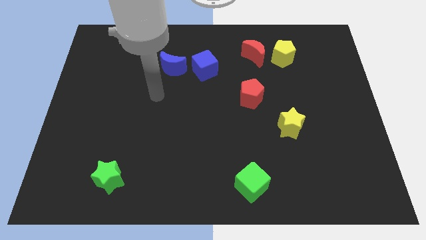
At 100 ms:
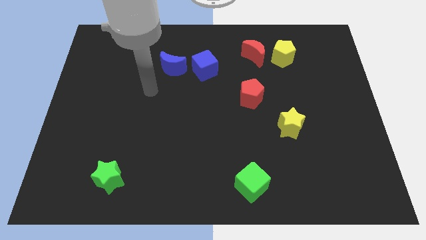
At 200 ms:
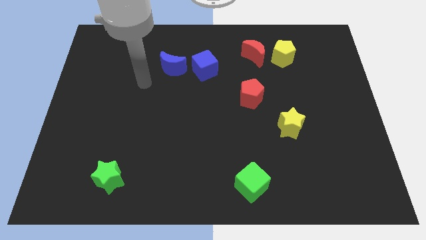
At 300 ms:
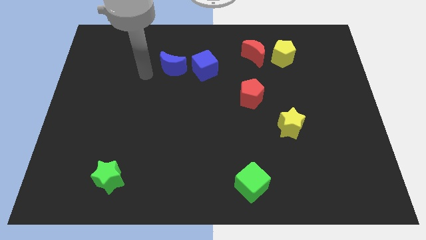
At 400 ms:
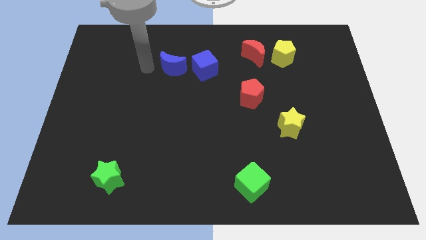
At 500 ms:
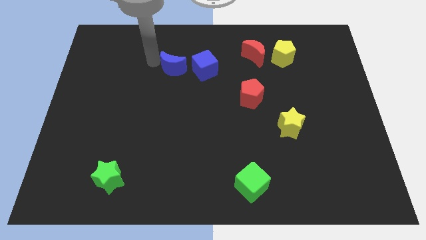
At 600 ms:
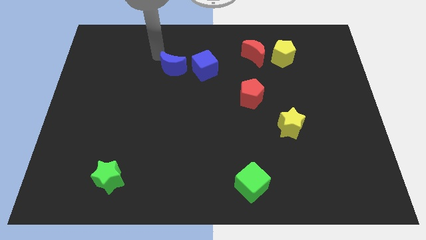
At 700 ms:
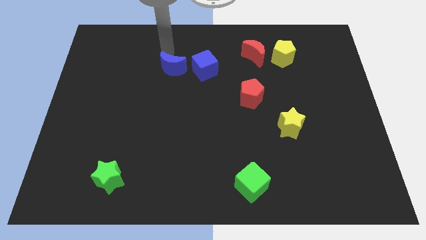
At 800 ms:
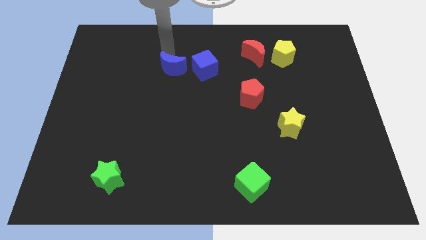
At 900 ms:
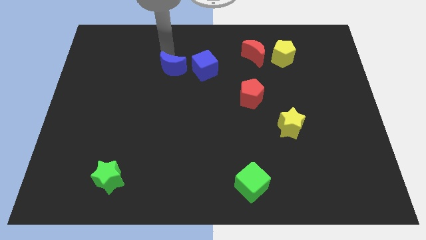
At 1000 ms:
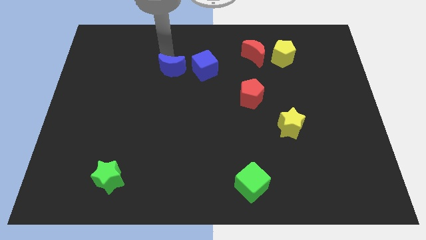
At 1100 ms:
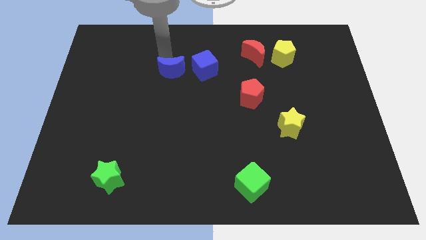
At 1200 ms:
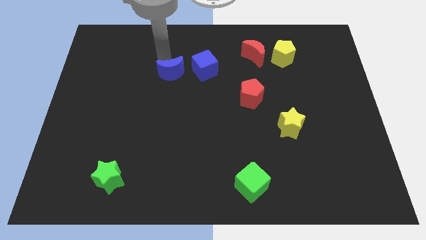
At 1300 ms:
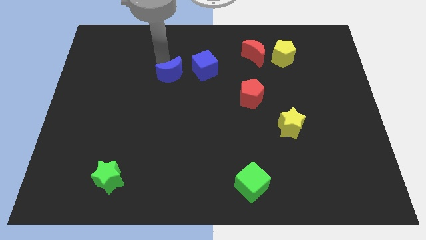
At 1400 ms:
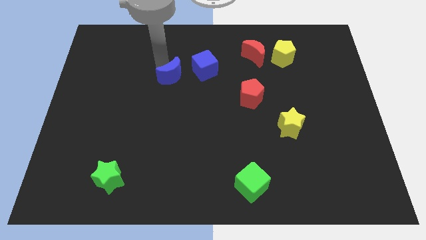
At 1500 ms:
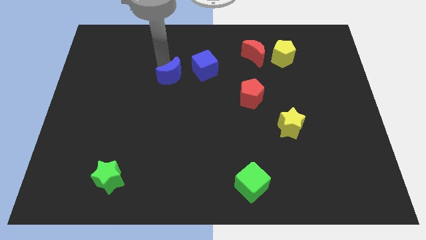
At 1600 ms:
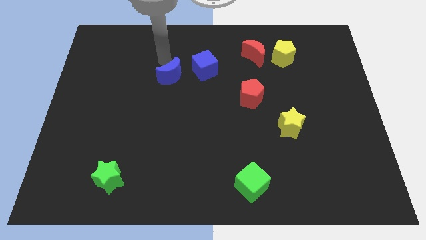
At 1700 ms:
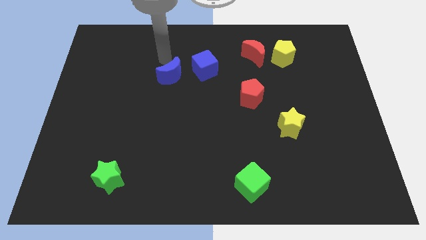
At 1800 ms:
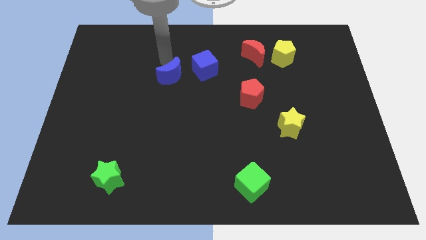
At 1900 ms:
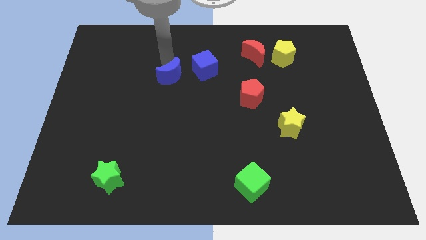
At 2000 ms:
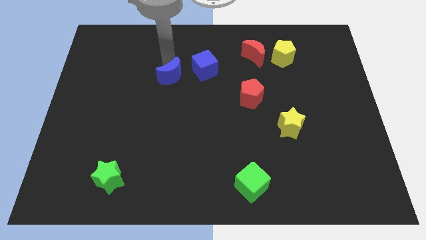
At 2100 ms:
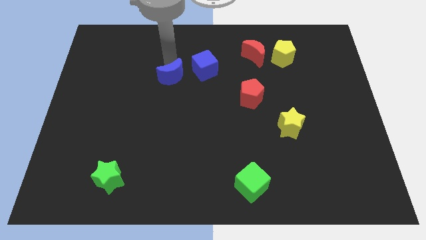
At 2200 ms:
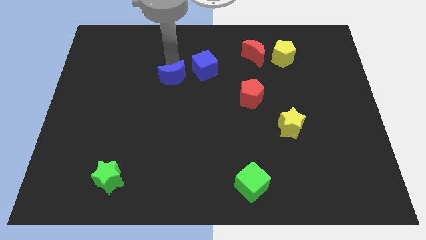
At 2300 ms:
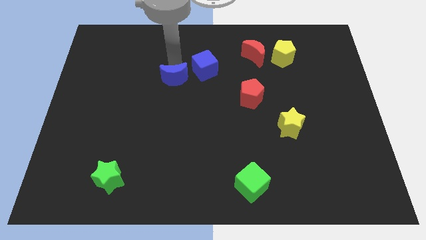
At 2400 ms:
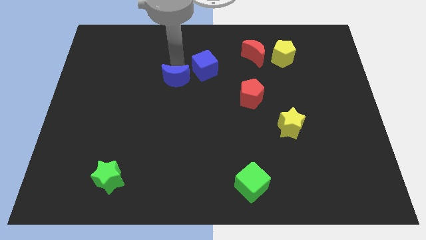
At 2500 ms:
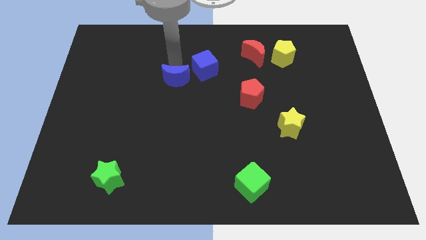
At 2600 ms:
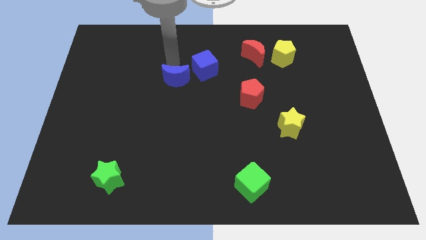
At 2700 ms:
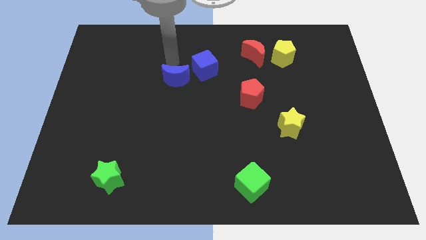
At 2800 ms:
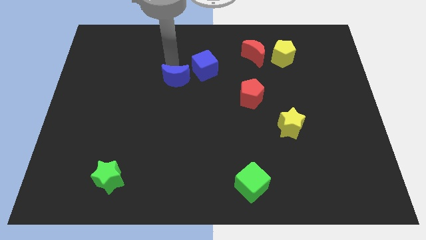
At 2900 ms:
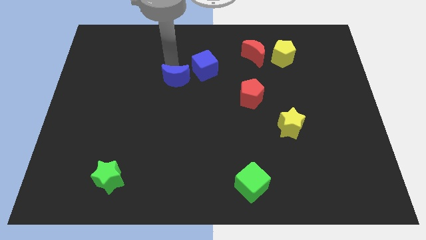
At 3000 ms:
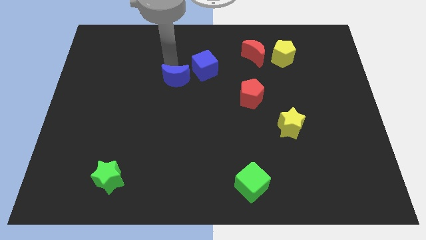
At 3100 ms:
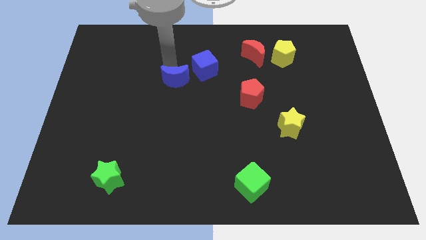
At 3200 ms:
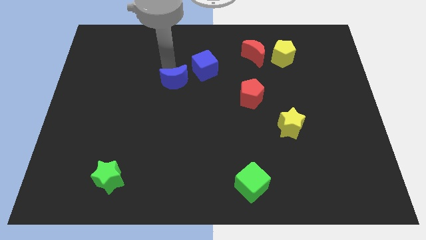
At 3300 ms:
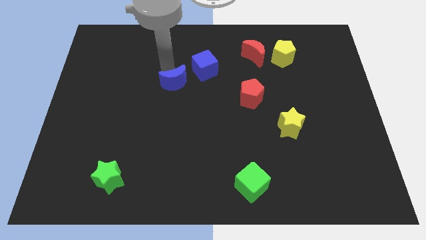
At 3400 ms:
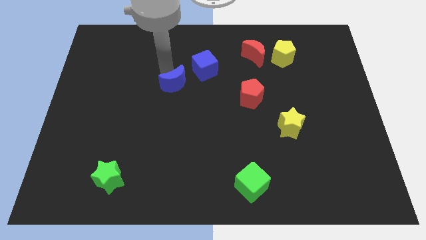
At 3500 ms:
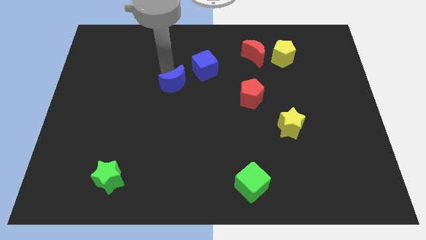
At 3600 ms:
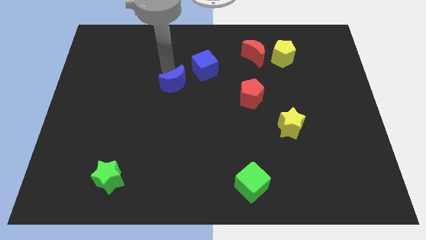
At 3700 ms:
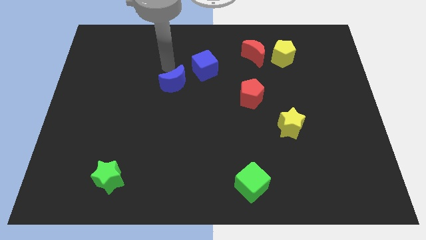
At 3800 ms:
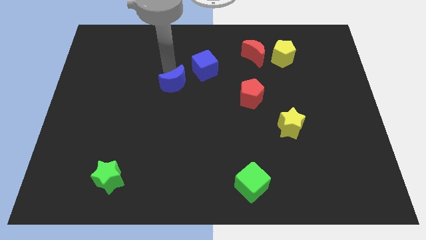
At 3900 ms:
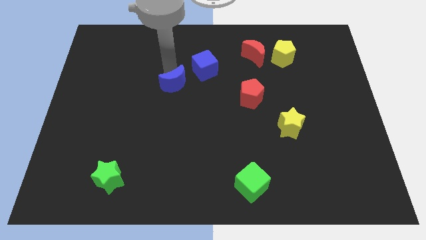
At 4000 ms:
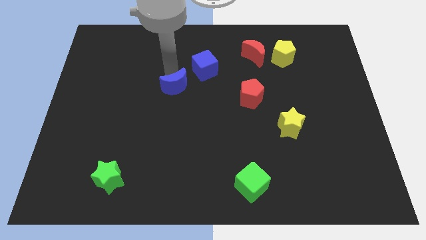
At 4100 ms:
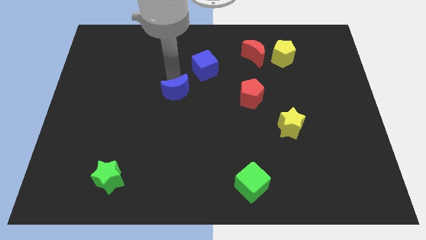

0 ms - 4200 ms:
slightly move the blue moon downwards

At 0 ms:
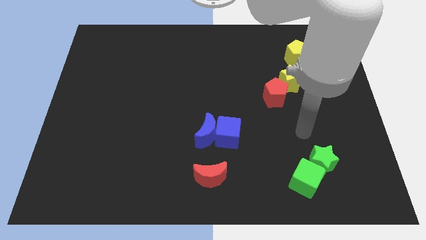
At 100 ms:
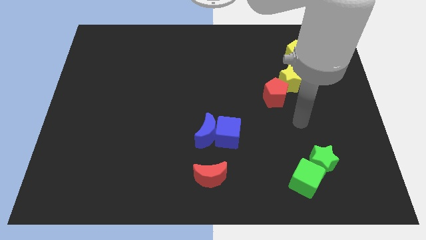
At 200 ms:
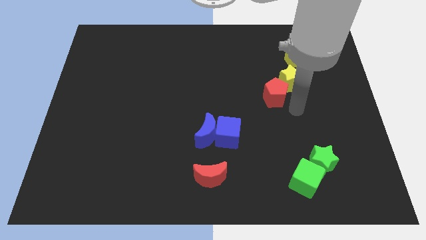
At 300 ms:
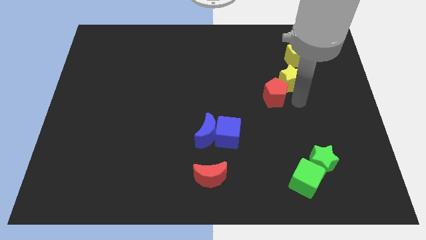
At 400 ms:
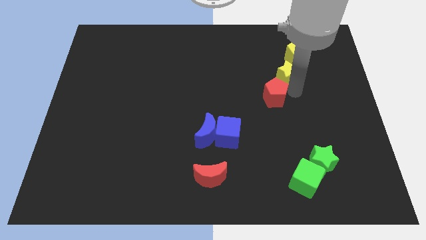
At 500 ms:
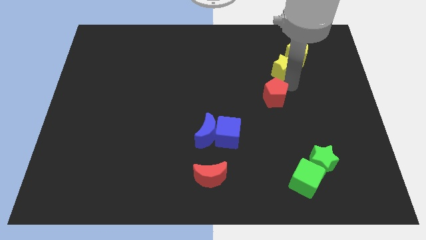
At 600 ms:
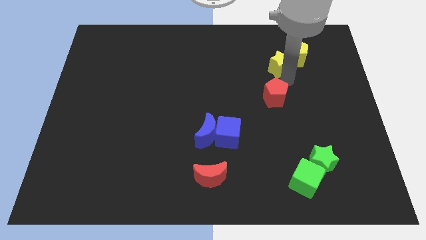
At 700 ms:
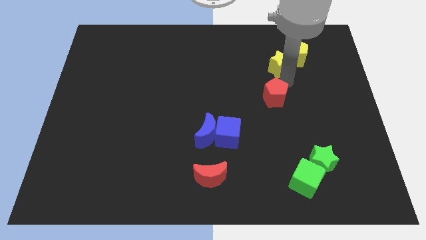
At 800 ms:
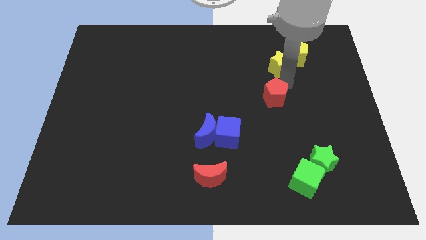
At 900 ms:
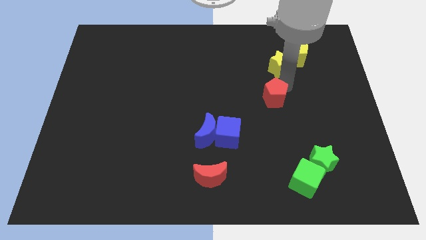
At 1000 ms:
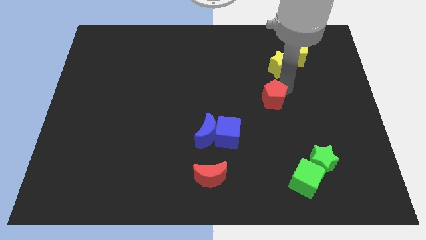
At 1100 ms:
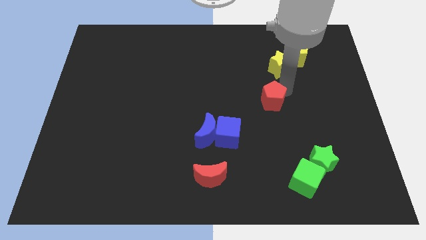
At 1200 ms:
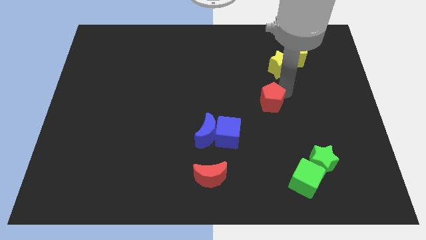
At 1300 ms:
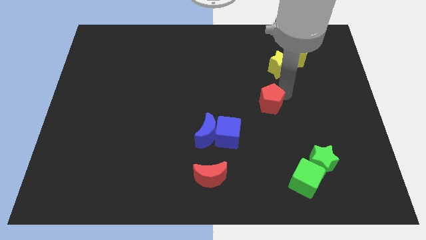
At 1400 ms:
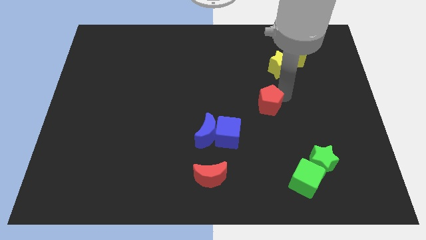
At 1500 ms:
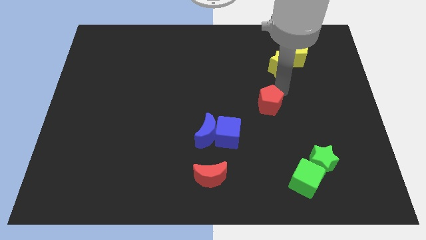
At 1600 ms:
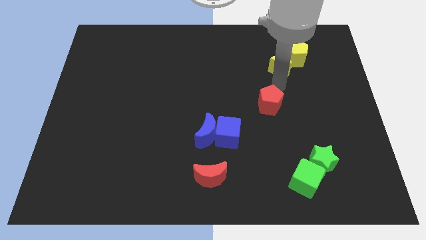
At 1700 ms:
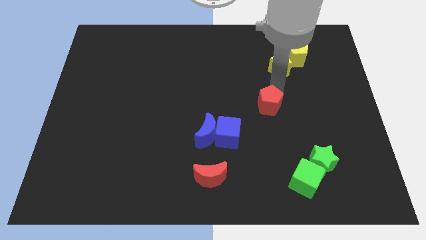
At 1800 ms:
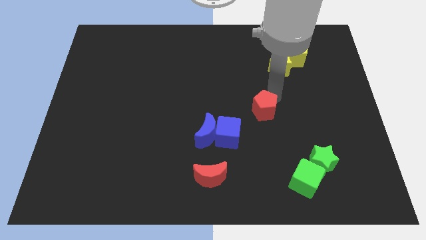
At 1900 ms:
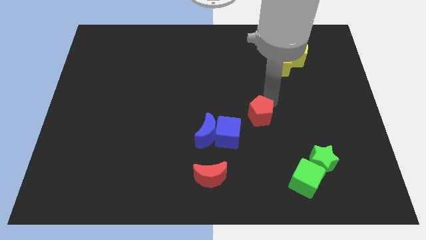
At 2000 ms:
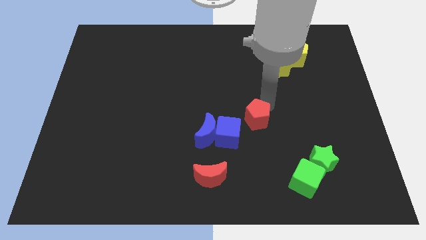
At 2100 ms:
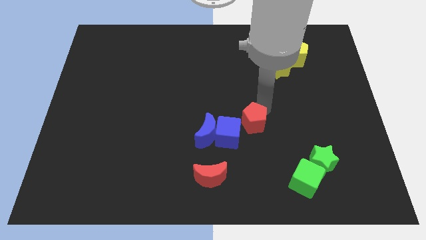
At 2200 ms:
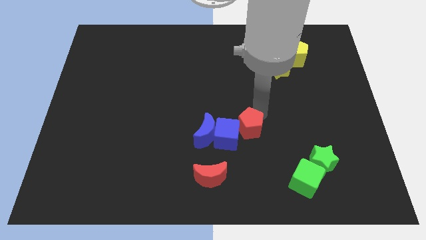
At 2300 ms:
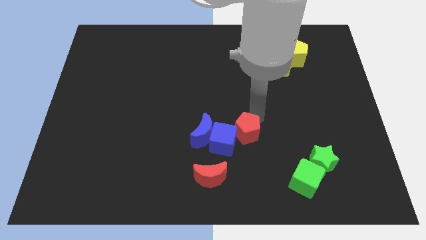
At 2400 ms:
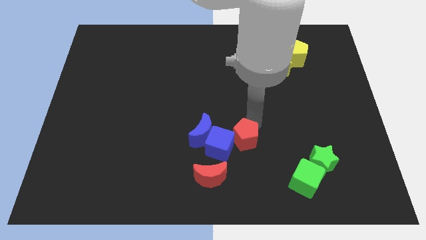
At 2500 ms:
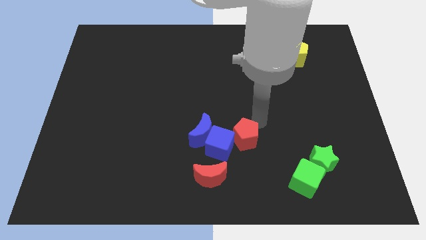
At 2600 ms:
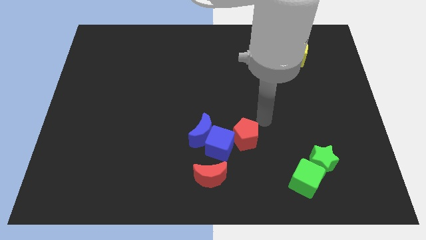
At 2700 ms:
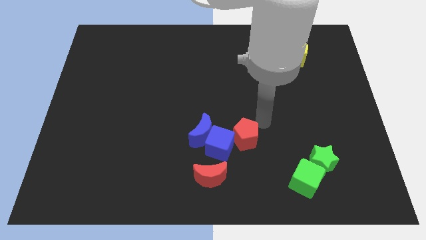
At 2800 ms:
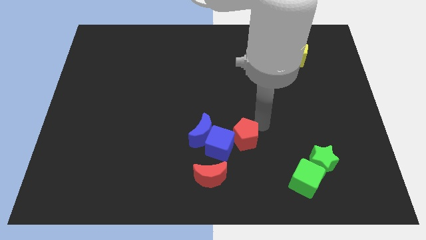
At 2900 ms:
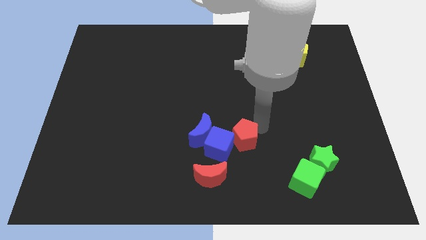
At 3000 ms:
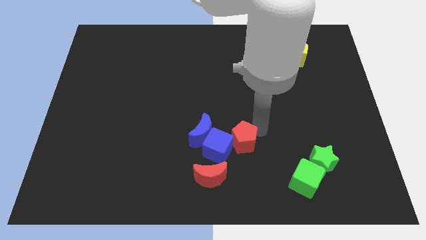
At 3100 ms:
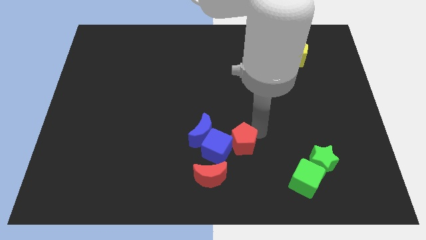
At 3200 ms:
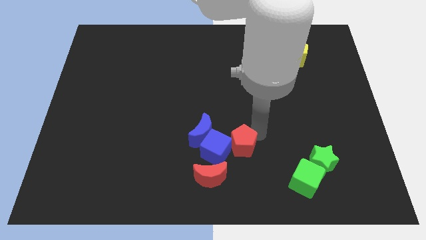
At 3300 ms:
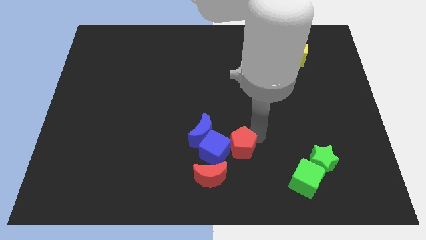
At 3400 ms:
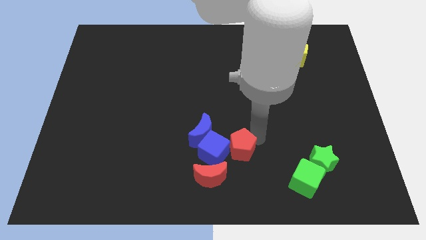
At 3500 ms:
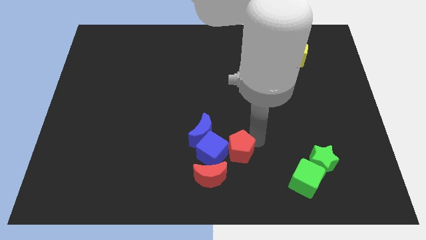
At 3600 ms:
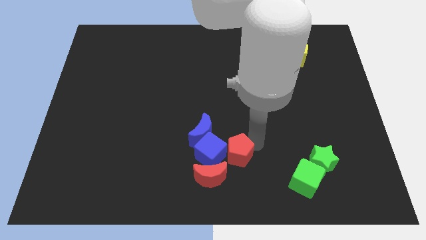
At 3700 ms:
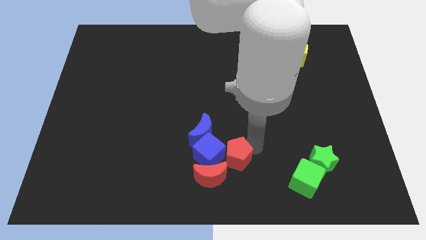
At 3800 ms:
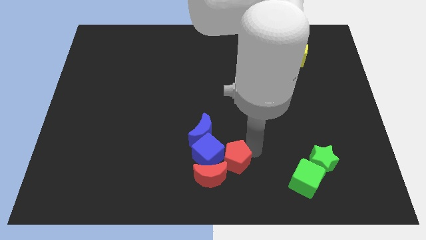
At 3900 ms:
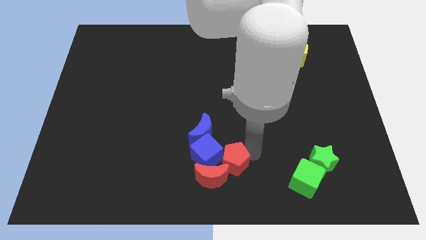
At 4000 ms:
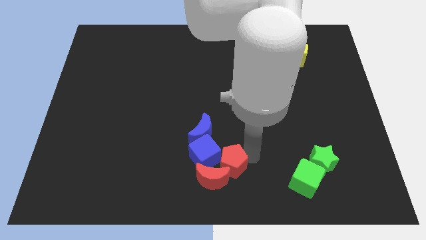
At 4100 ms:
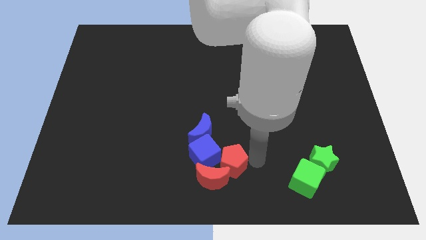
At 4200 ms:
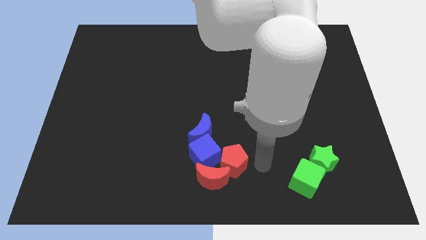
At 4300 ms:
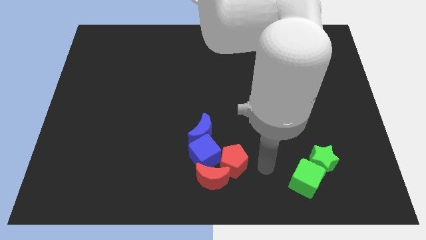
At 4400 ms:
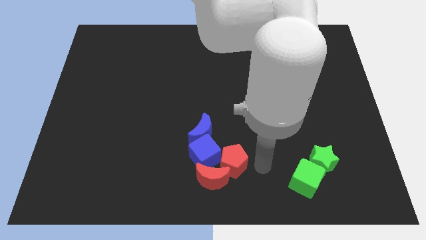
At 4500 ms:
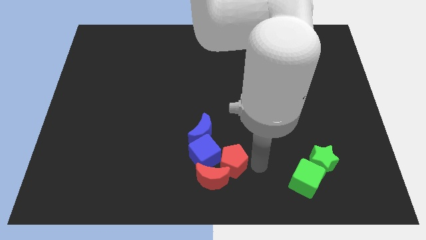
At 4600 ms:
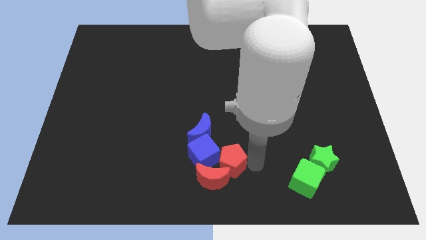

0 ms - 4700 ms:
move the red pentagon diagonally down and left
